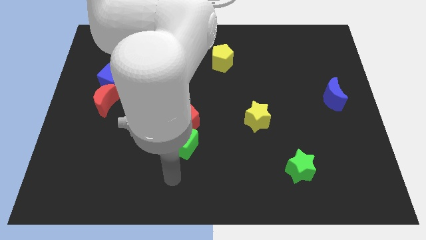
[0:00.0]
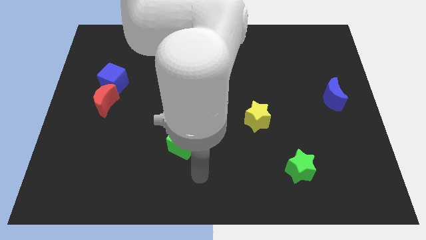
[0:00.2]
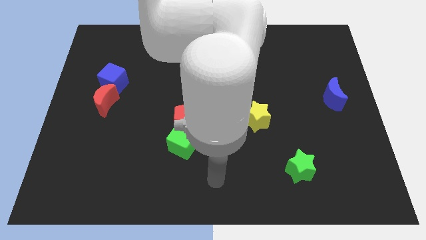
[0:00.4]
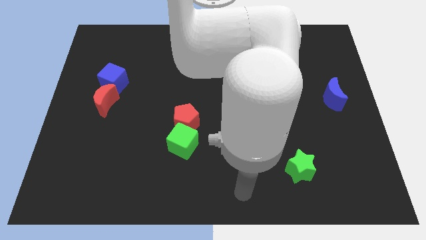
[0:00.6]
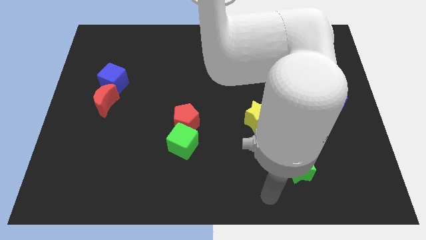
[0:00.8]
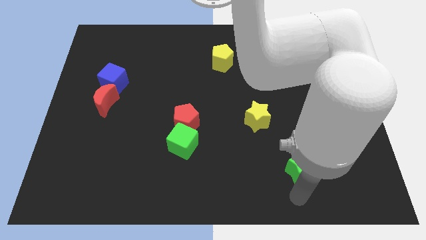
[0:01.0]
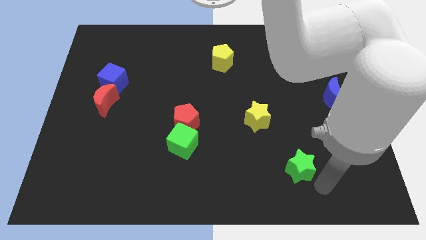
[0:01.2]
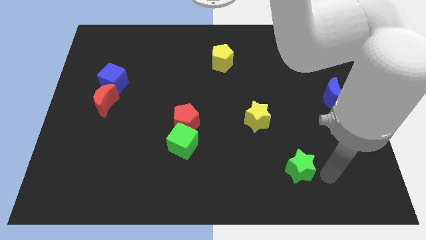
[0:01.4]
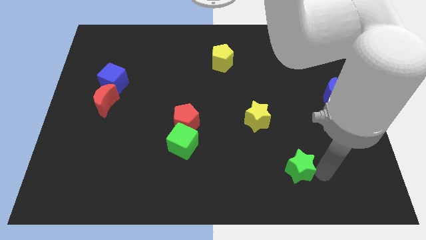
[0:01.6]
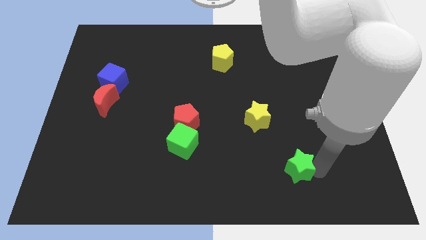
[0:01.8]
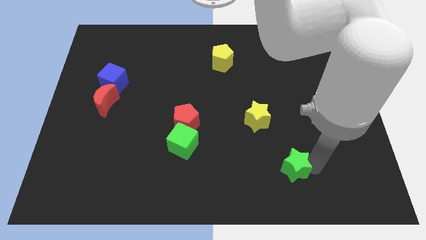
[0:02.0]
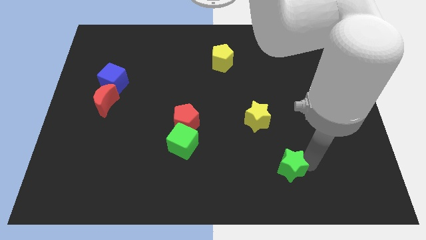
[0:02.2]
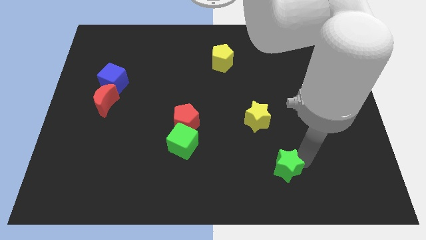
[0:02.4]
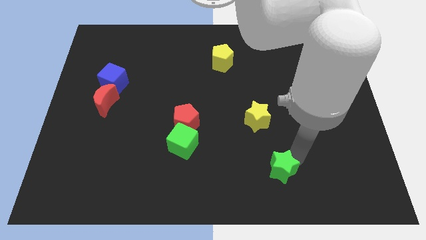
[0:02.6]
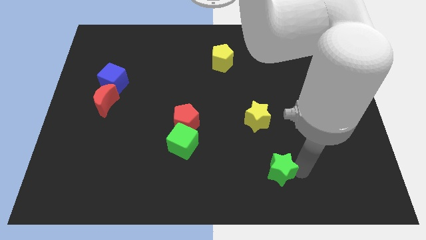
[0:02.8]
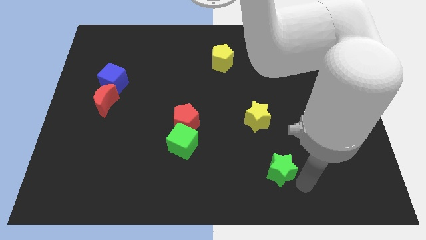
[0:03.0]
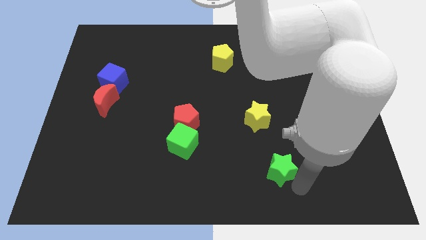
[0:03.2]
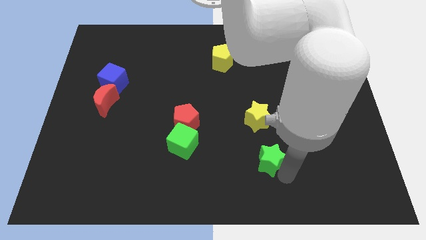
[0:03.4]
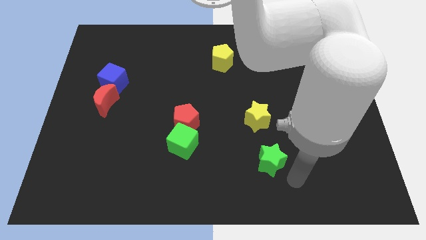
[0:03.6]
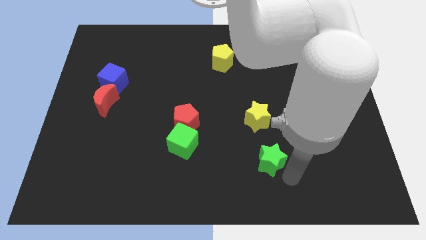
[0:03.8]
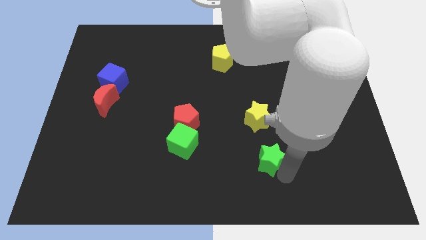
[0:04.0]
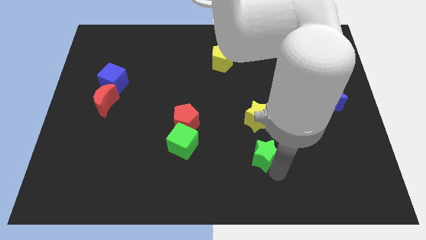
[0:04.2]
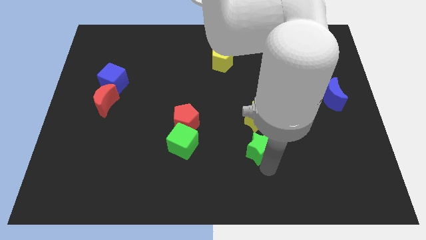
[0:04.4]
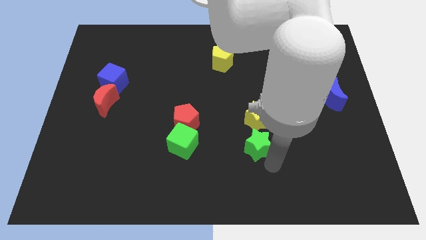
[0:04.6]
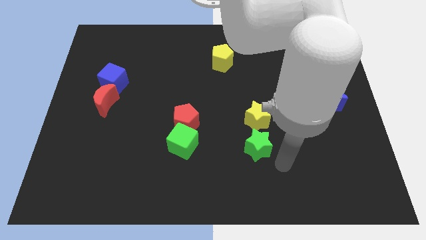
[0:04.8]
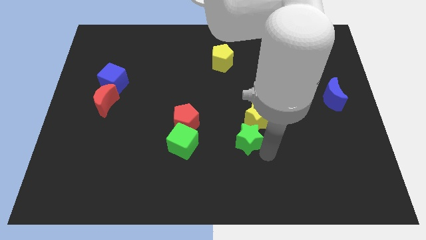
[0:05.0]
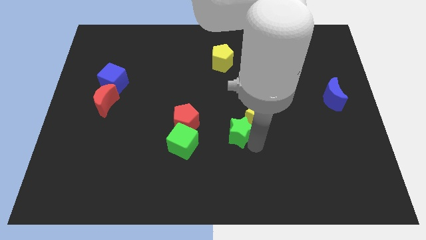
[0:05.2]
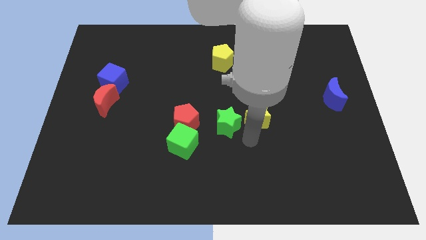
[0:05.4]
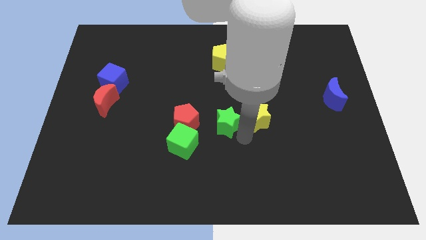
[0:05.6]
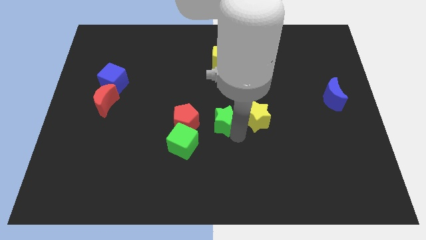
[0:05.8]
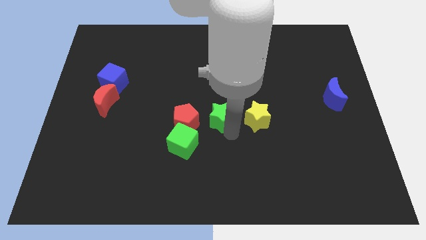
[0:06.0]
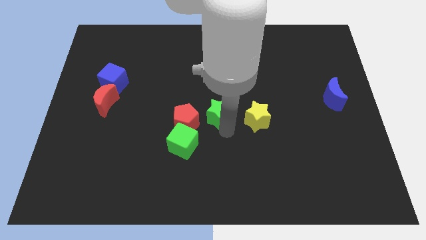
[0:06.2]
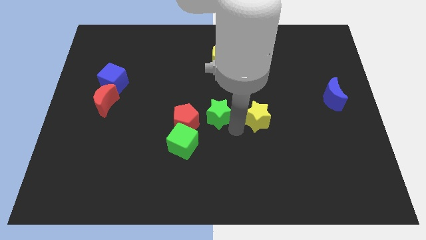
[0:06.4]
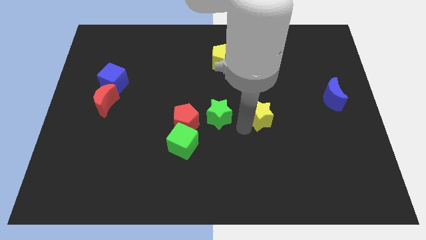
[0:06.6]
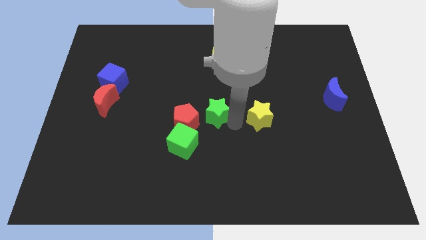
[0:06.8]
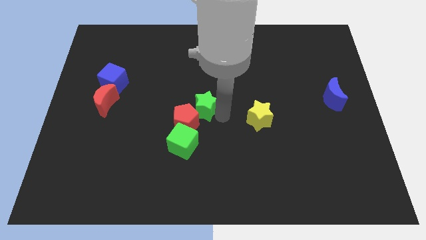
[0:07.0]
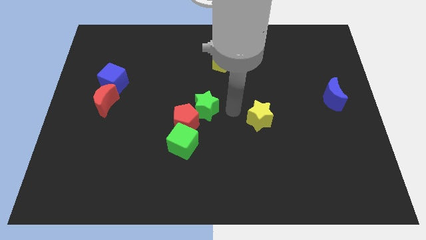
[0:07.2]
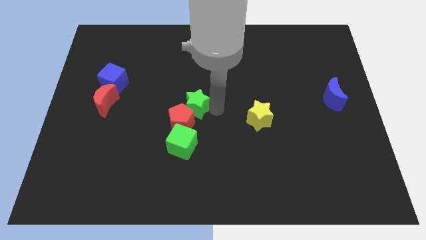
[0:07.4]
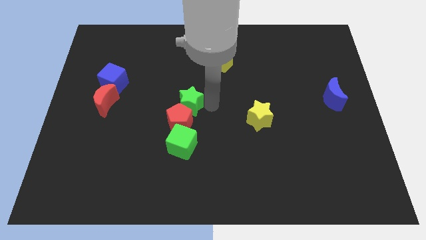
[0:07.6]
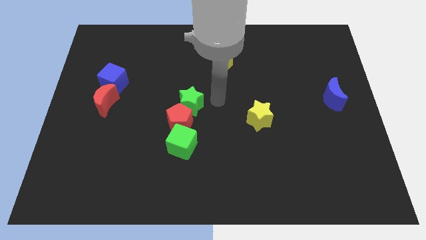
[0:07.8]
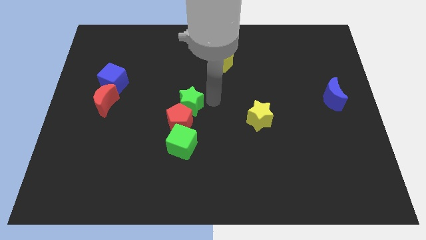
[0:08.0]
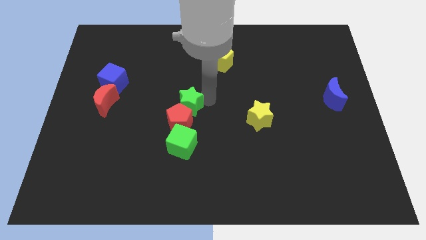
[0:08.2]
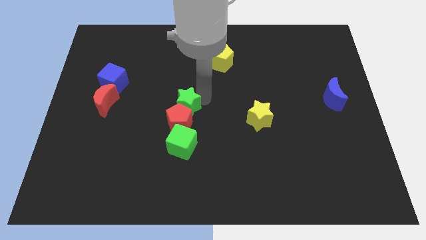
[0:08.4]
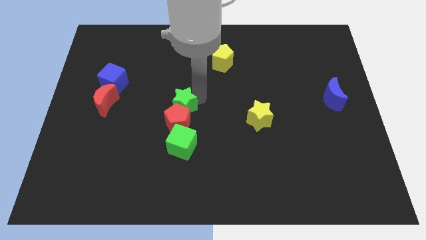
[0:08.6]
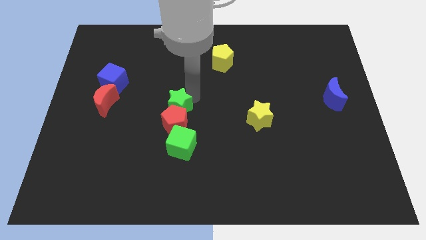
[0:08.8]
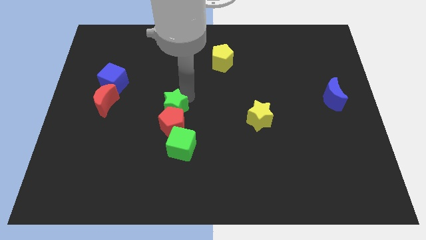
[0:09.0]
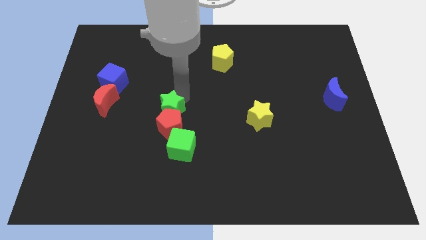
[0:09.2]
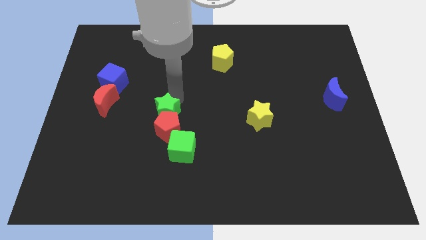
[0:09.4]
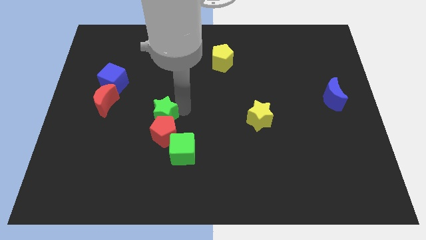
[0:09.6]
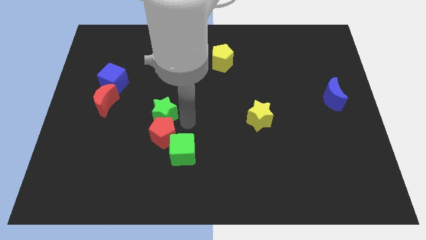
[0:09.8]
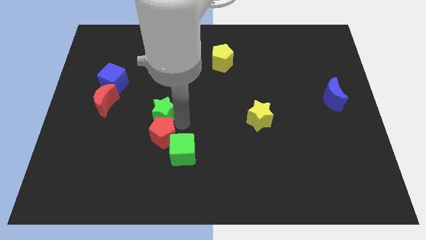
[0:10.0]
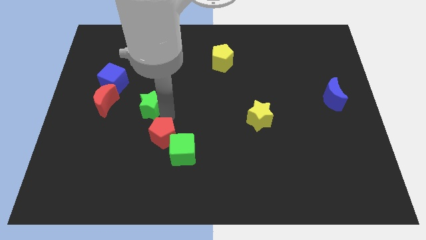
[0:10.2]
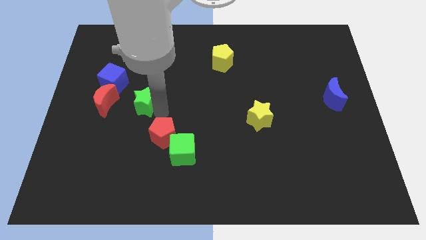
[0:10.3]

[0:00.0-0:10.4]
put the green star to the bottom right side of the blue cube

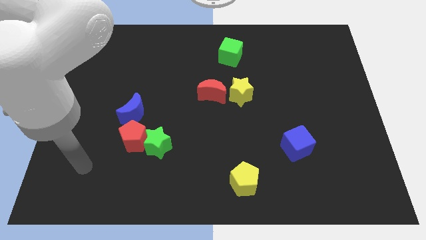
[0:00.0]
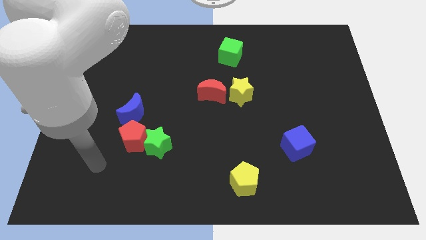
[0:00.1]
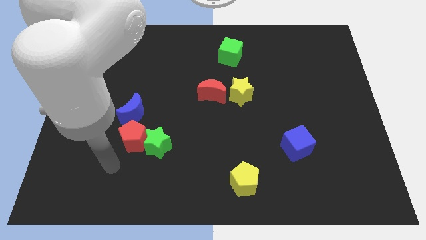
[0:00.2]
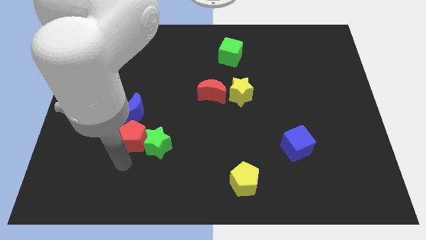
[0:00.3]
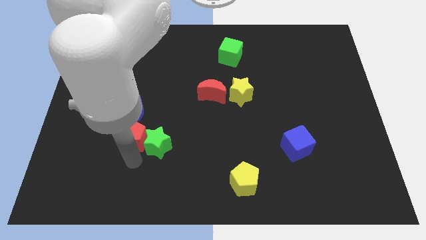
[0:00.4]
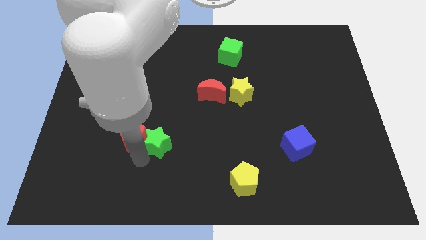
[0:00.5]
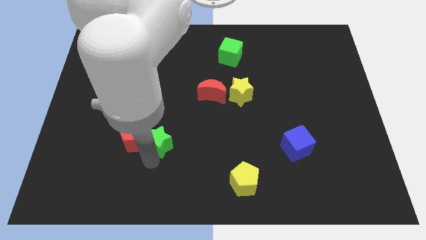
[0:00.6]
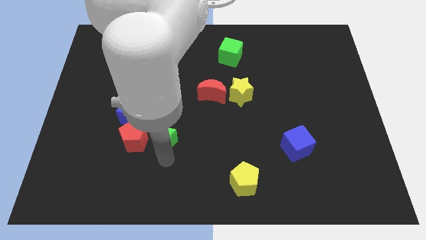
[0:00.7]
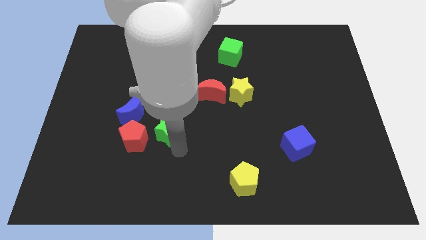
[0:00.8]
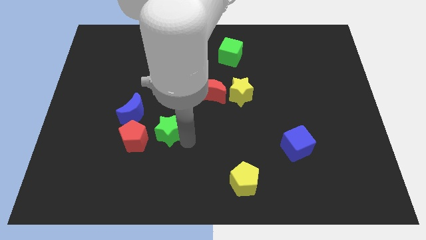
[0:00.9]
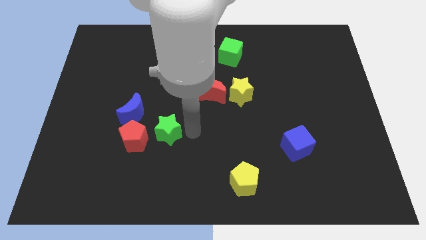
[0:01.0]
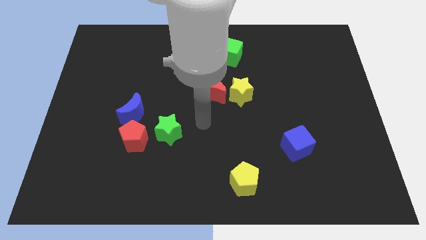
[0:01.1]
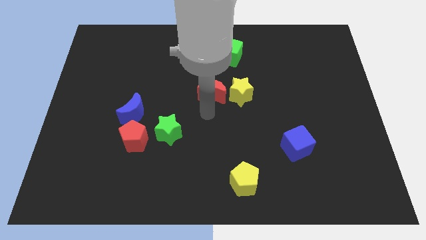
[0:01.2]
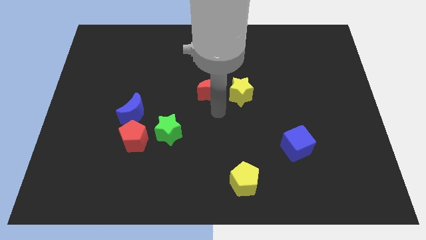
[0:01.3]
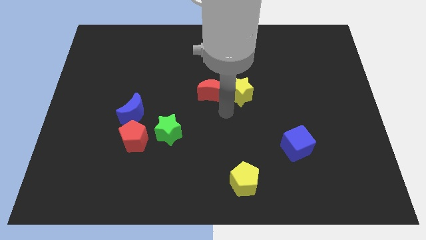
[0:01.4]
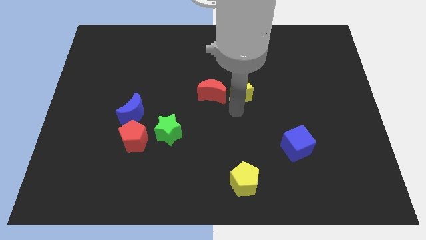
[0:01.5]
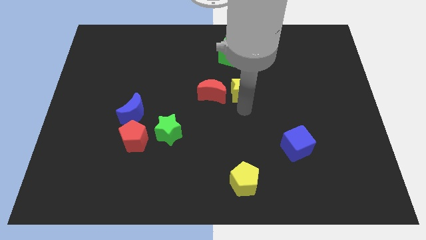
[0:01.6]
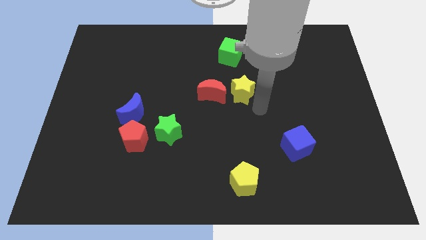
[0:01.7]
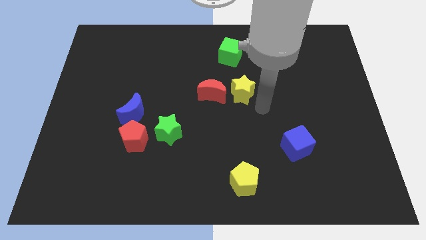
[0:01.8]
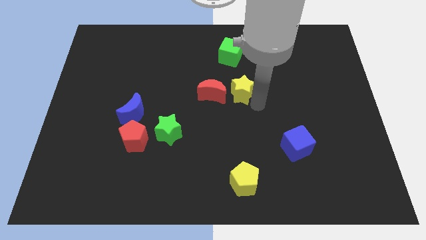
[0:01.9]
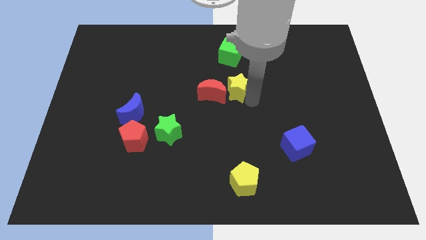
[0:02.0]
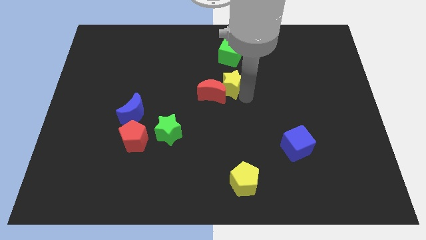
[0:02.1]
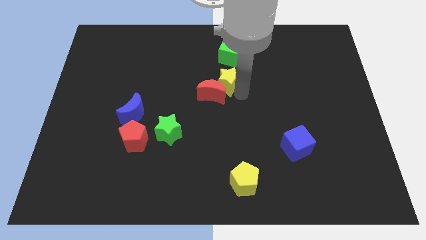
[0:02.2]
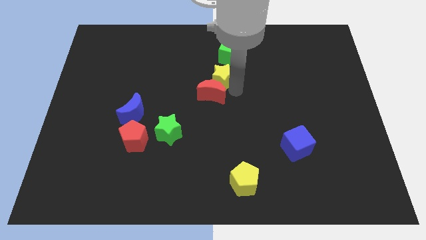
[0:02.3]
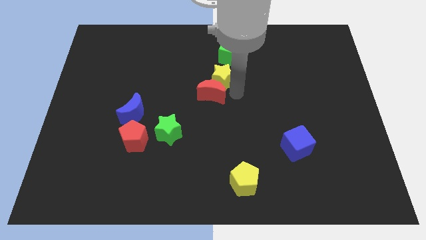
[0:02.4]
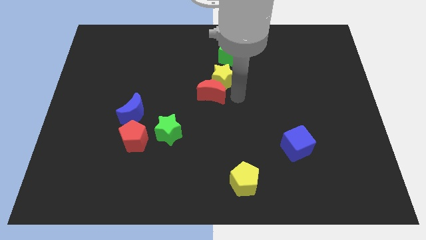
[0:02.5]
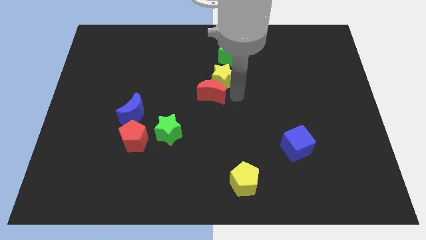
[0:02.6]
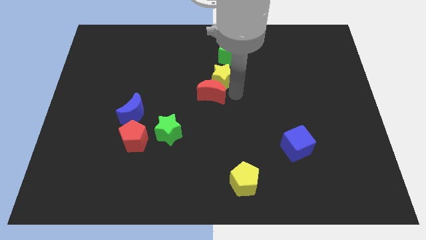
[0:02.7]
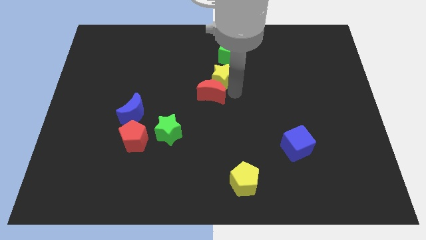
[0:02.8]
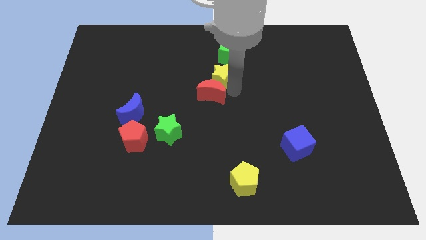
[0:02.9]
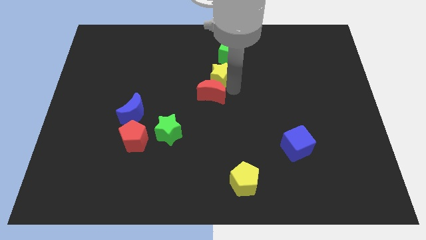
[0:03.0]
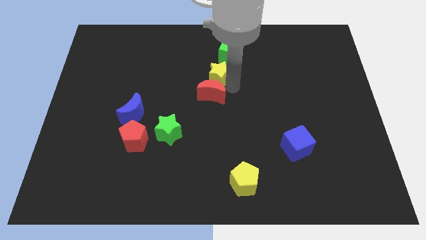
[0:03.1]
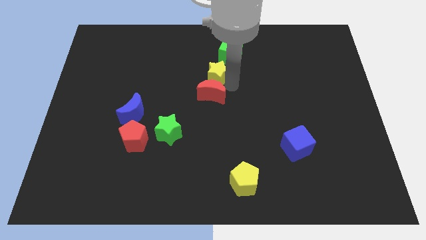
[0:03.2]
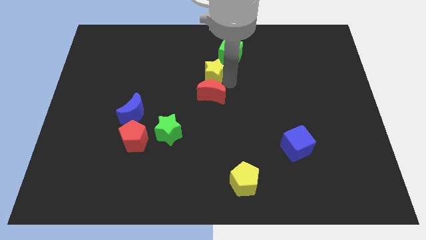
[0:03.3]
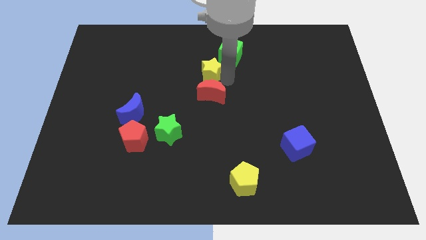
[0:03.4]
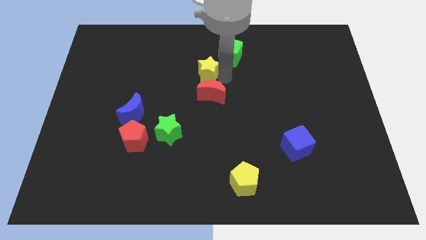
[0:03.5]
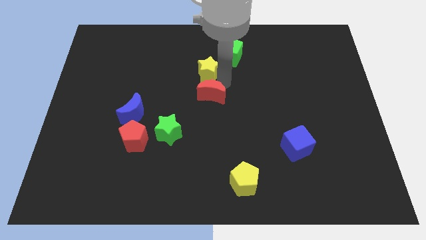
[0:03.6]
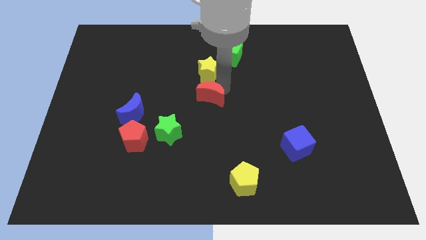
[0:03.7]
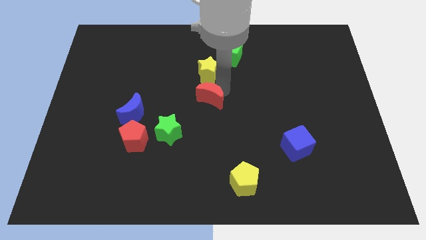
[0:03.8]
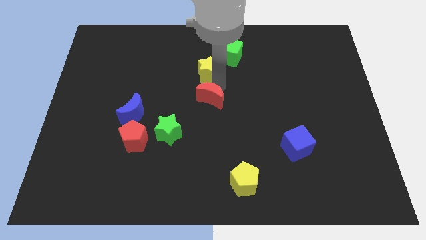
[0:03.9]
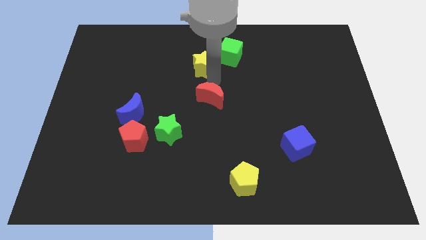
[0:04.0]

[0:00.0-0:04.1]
slide the yellow star to the left of the green cube
